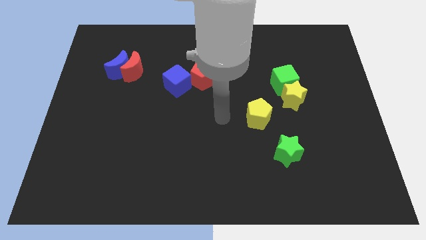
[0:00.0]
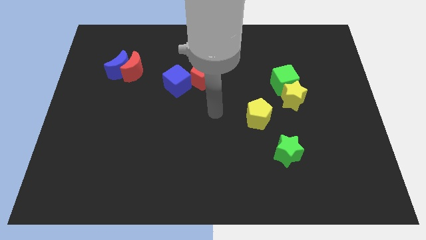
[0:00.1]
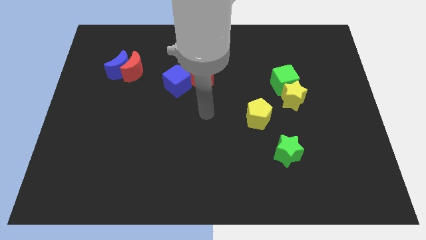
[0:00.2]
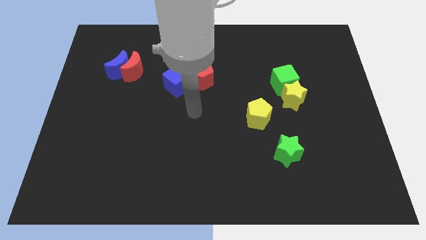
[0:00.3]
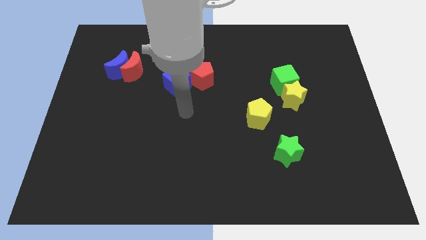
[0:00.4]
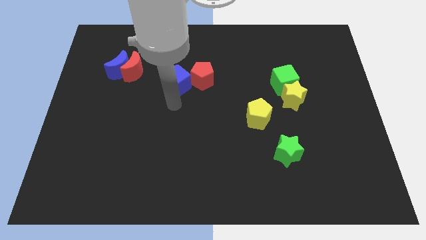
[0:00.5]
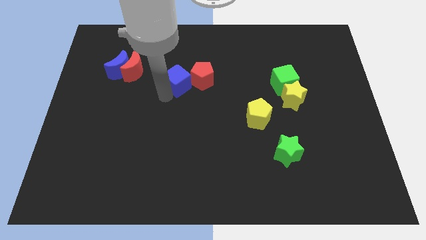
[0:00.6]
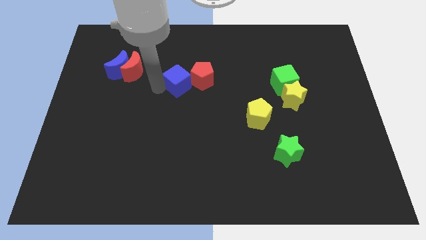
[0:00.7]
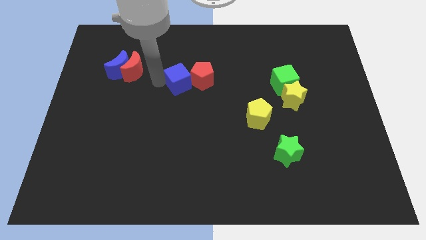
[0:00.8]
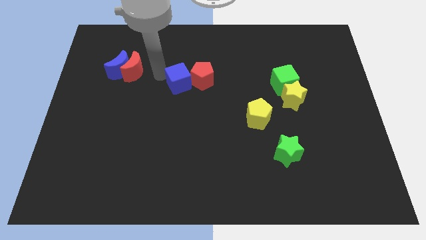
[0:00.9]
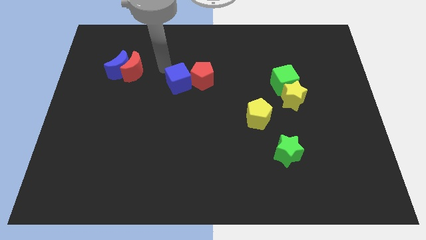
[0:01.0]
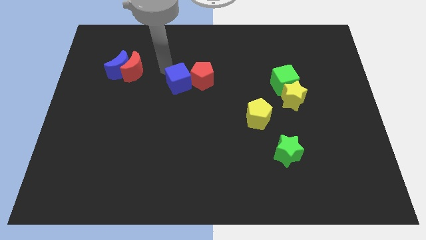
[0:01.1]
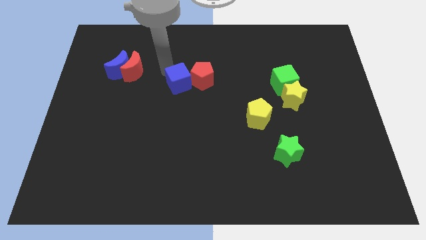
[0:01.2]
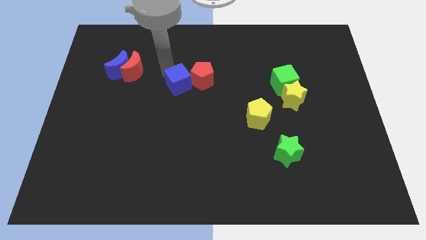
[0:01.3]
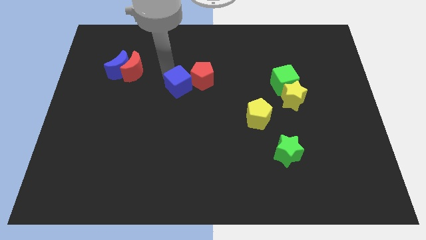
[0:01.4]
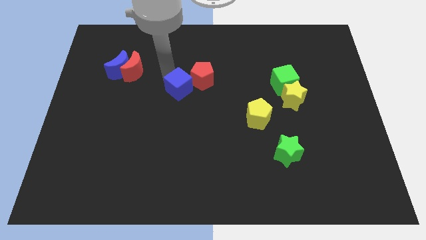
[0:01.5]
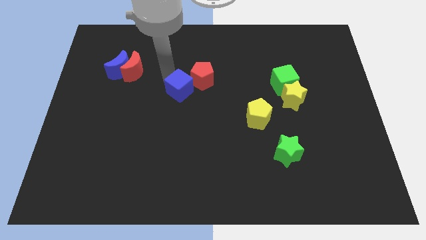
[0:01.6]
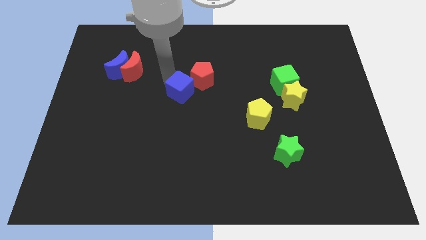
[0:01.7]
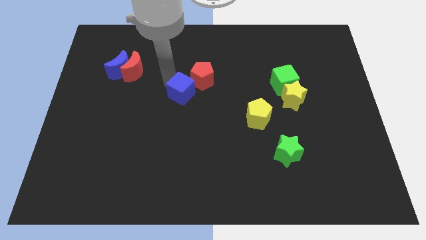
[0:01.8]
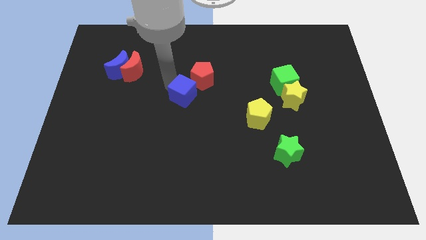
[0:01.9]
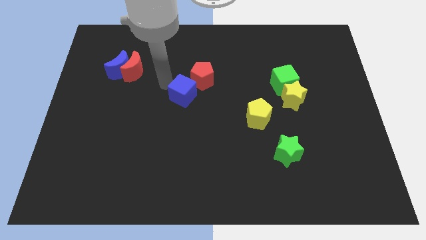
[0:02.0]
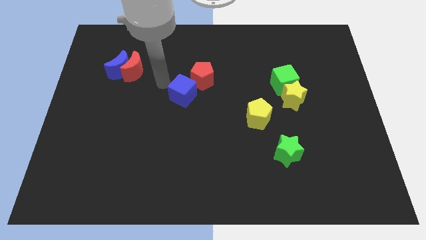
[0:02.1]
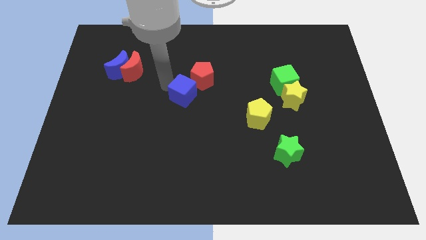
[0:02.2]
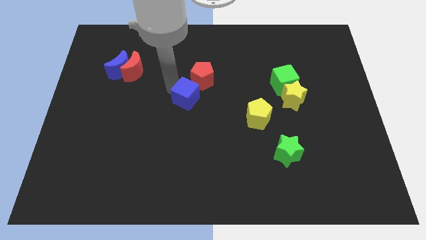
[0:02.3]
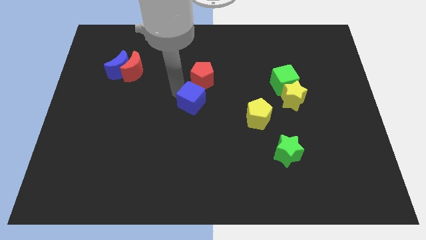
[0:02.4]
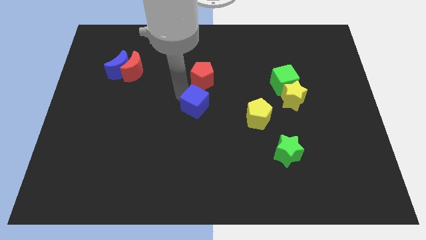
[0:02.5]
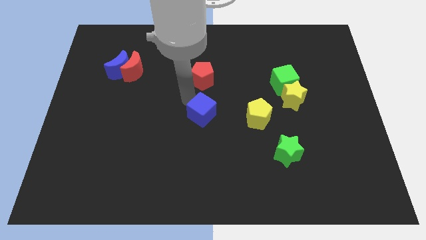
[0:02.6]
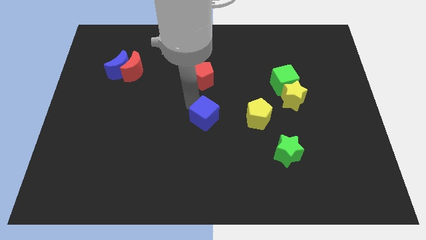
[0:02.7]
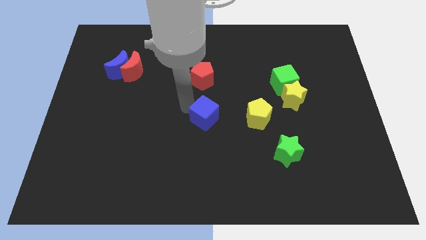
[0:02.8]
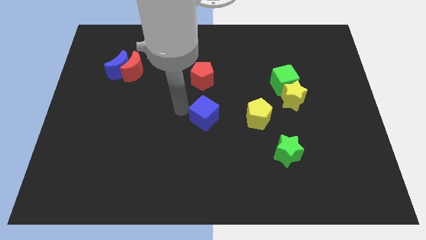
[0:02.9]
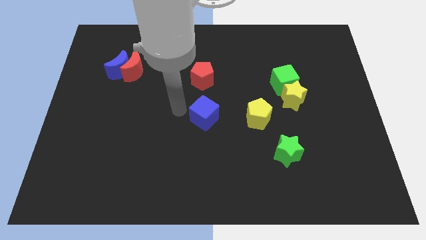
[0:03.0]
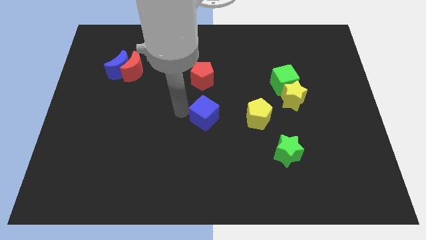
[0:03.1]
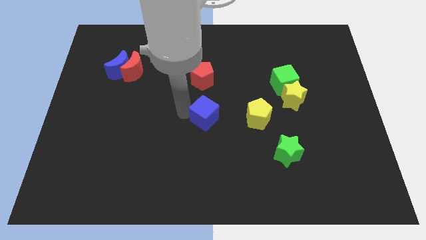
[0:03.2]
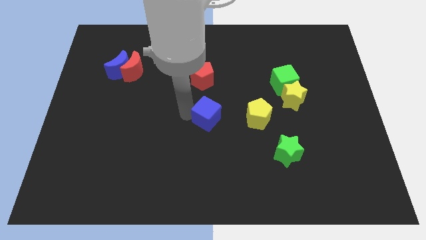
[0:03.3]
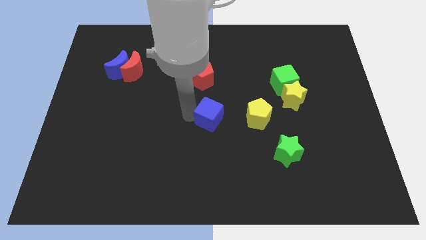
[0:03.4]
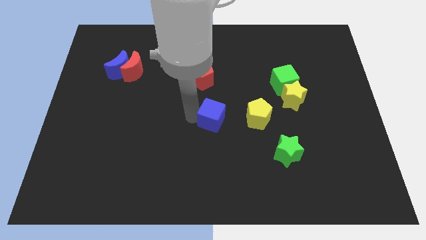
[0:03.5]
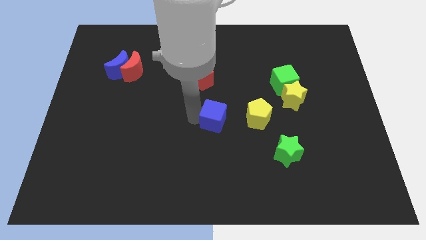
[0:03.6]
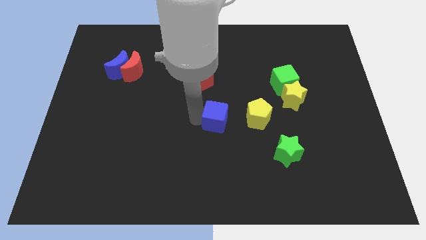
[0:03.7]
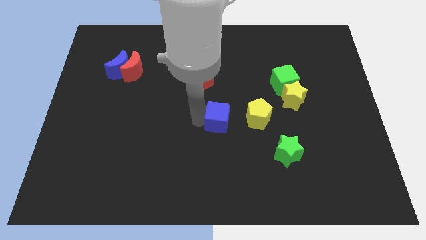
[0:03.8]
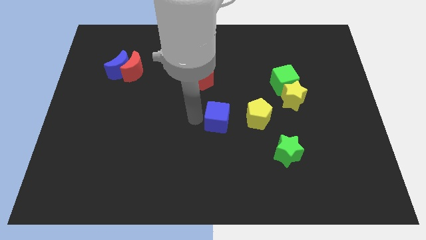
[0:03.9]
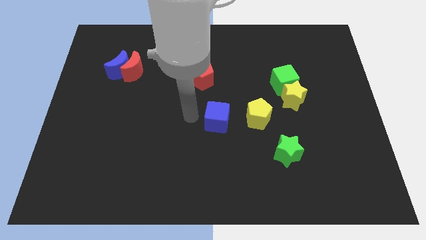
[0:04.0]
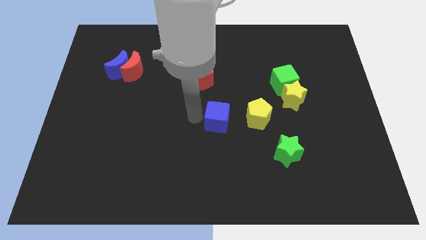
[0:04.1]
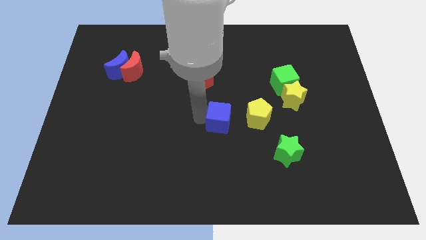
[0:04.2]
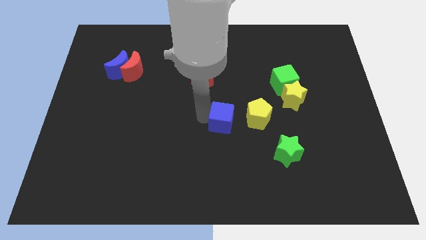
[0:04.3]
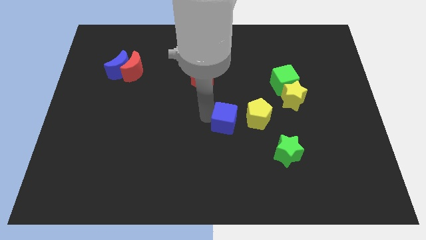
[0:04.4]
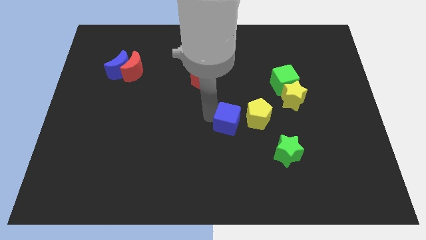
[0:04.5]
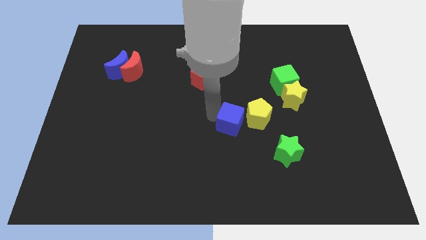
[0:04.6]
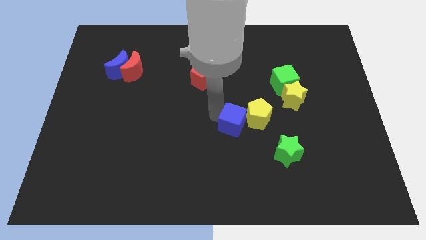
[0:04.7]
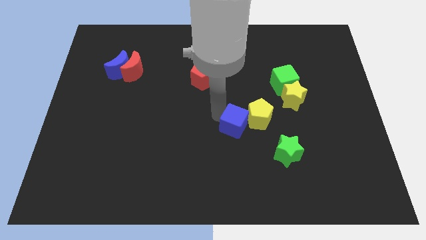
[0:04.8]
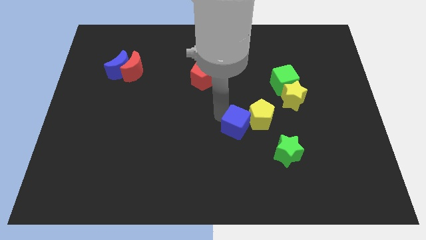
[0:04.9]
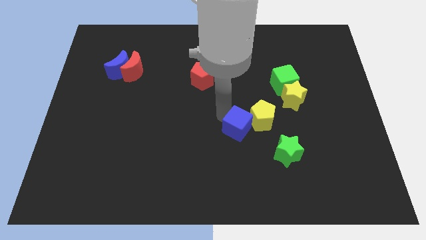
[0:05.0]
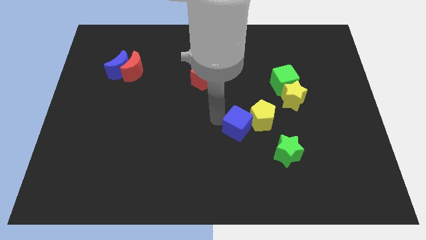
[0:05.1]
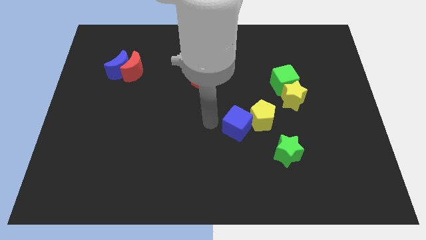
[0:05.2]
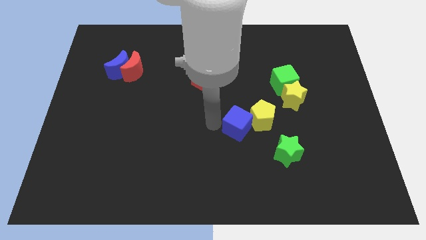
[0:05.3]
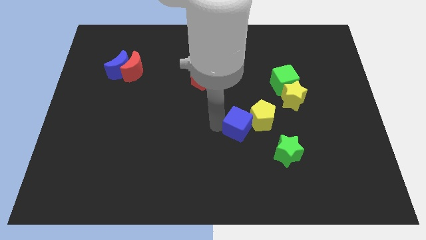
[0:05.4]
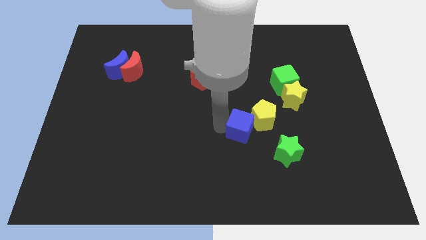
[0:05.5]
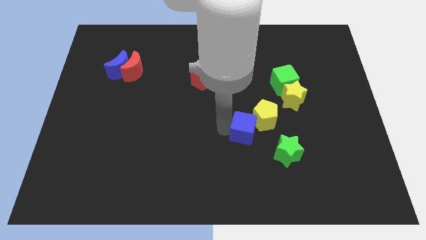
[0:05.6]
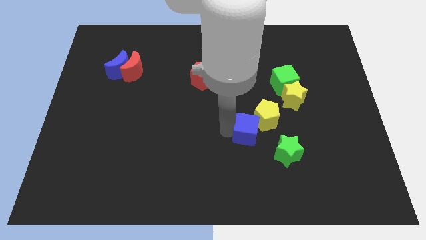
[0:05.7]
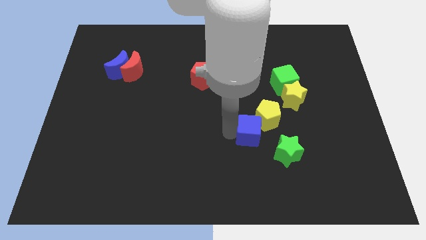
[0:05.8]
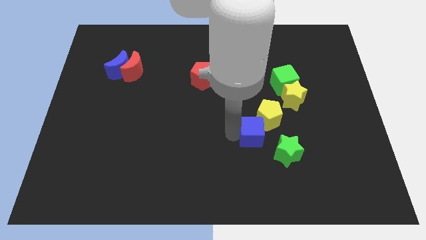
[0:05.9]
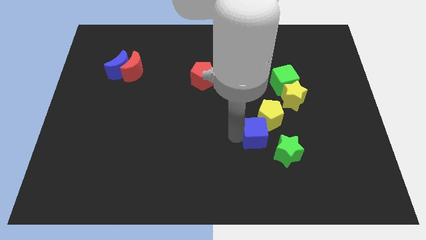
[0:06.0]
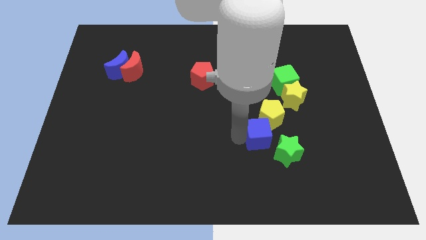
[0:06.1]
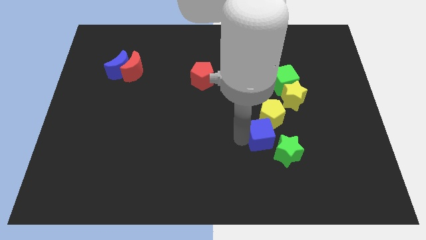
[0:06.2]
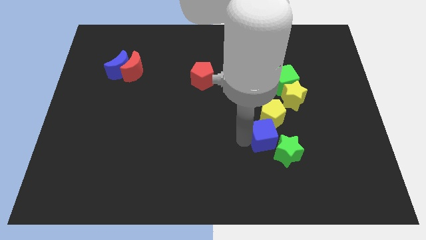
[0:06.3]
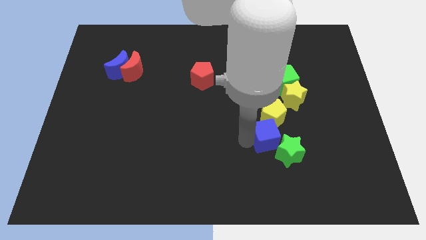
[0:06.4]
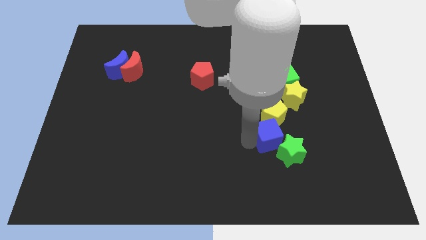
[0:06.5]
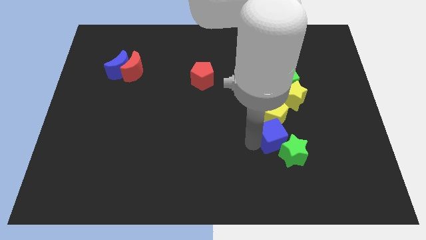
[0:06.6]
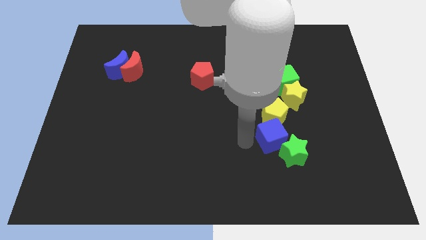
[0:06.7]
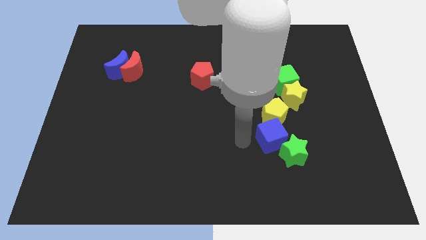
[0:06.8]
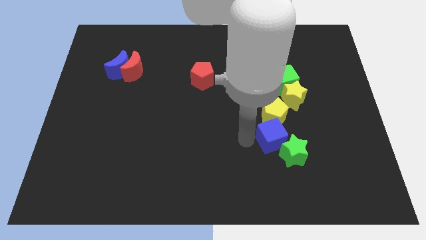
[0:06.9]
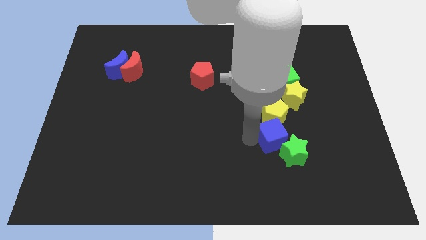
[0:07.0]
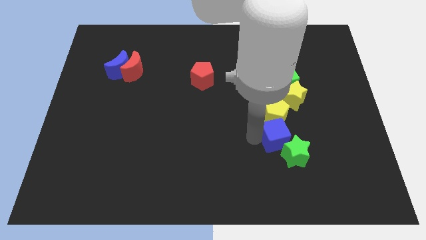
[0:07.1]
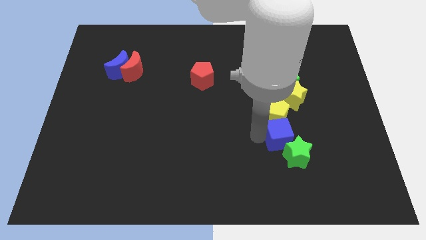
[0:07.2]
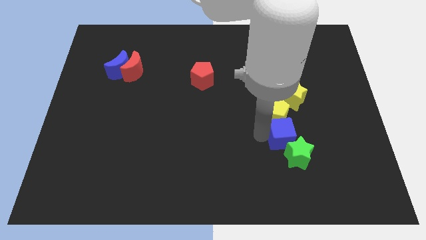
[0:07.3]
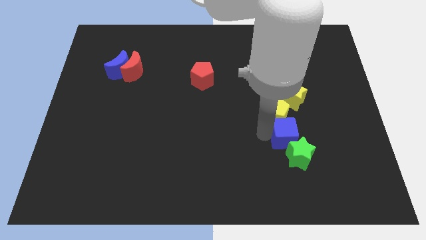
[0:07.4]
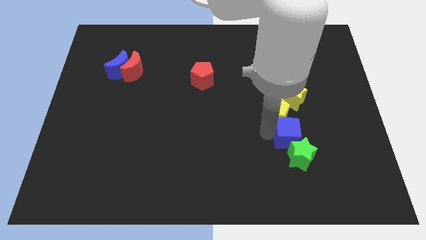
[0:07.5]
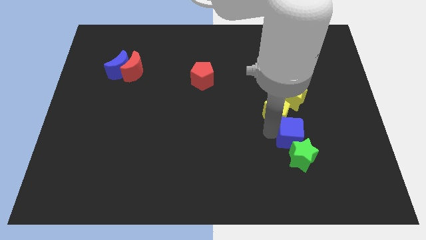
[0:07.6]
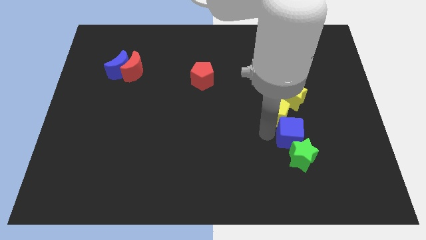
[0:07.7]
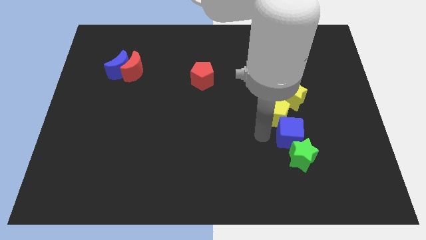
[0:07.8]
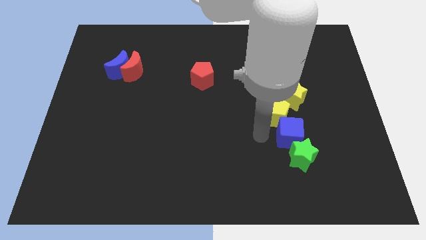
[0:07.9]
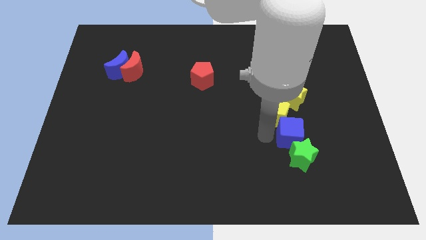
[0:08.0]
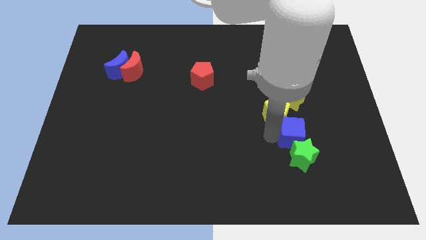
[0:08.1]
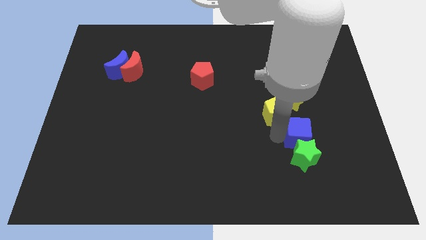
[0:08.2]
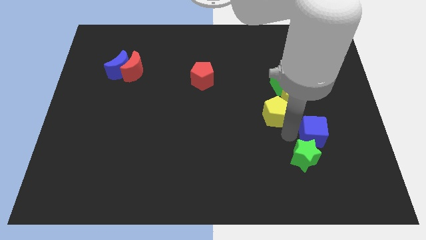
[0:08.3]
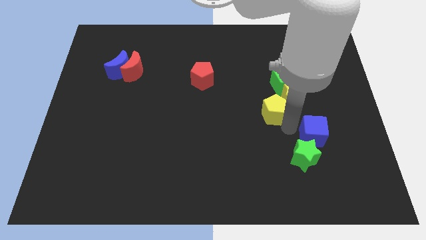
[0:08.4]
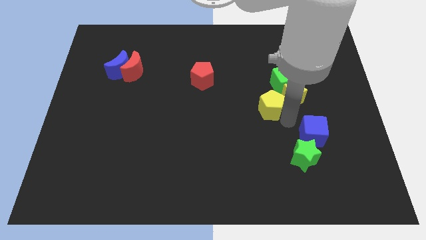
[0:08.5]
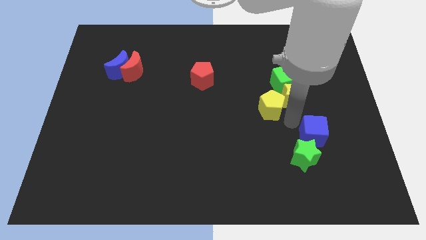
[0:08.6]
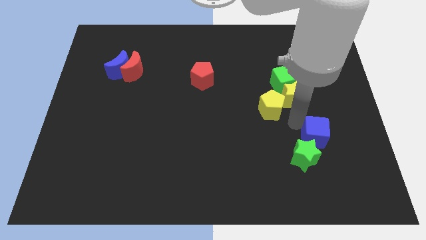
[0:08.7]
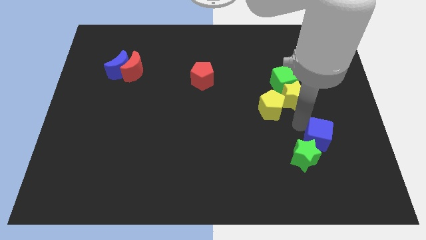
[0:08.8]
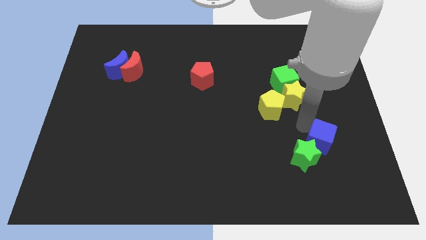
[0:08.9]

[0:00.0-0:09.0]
push the blue cube to the right side of the green star
